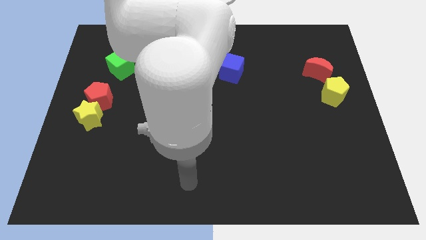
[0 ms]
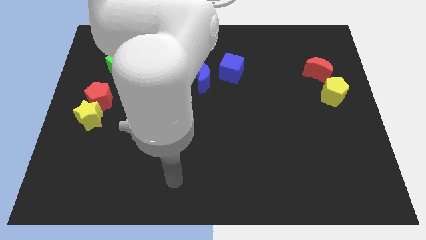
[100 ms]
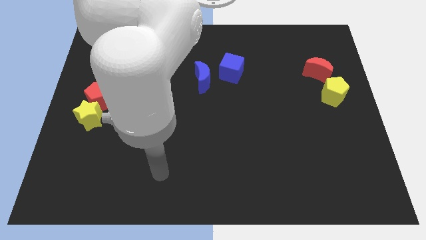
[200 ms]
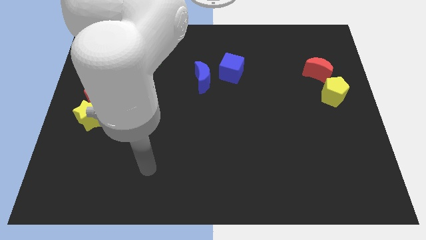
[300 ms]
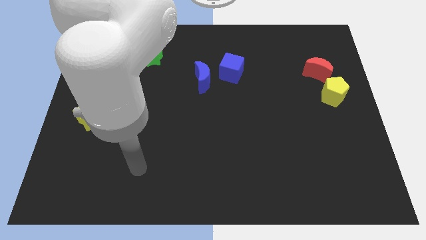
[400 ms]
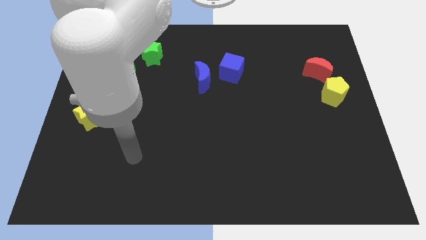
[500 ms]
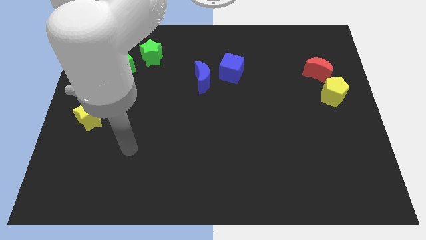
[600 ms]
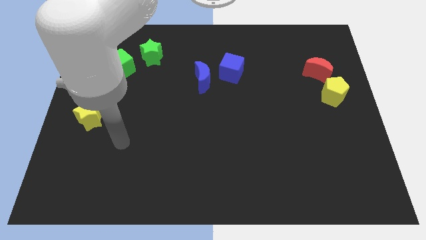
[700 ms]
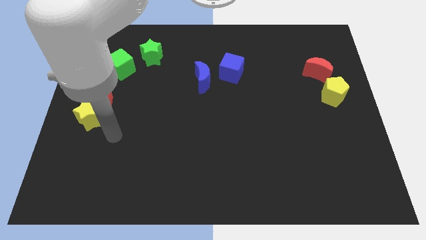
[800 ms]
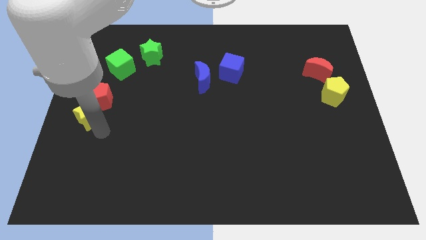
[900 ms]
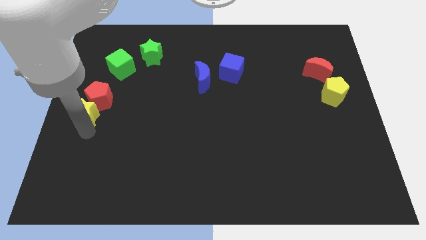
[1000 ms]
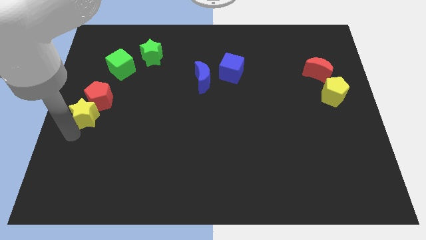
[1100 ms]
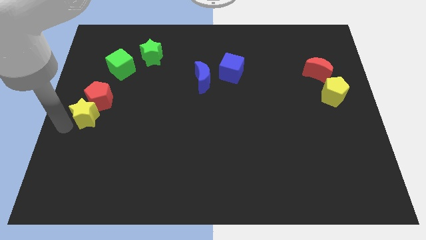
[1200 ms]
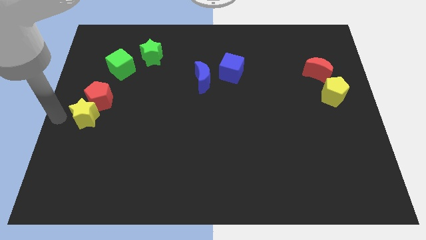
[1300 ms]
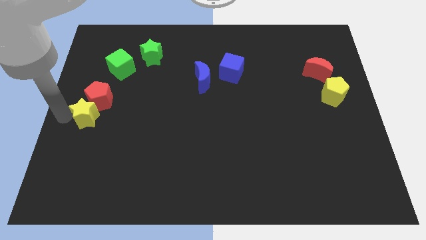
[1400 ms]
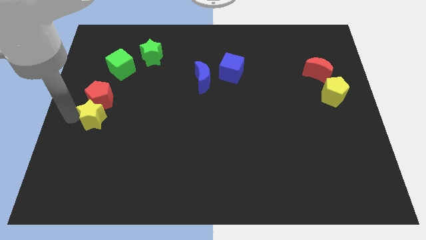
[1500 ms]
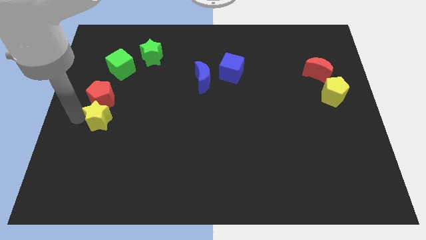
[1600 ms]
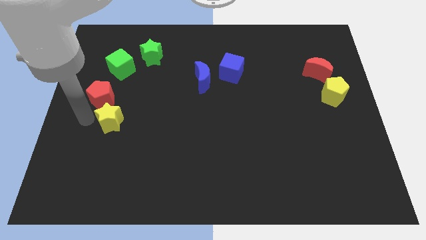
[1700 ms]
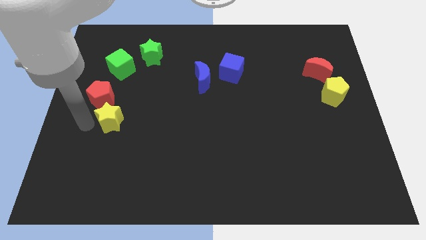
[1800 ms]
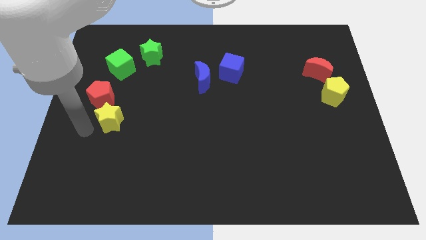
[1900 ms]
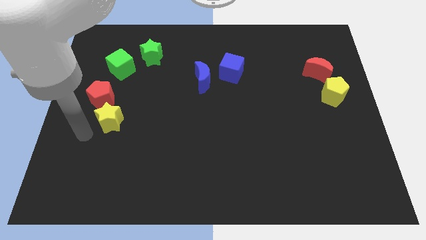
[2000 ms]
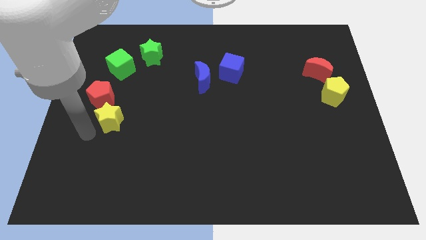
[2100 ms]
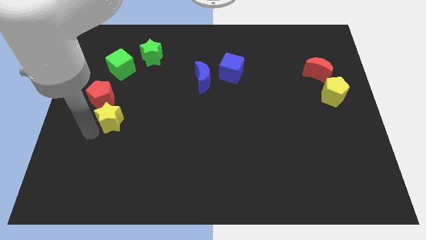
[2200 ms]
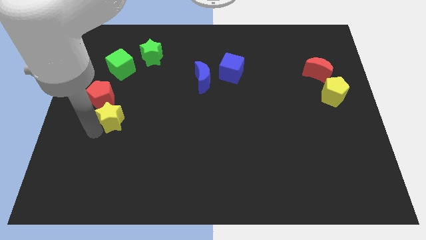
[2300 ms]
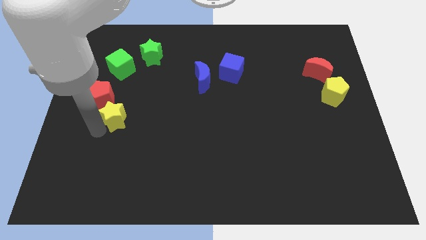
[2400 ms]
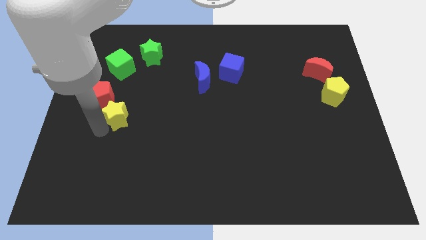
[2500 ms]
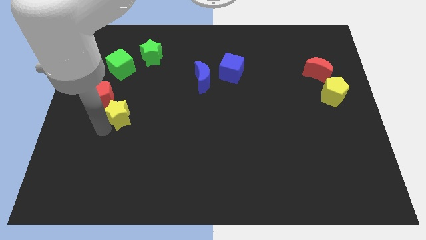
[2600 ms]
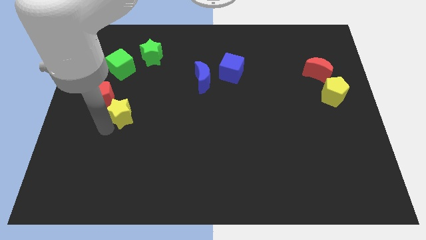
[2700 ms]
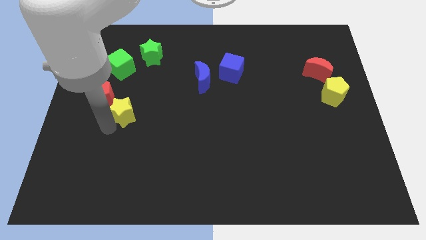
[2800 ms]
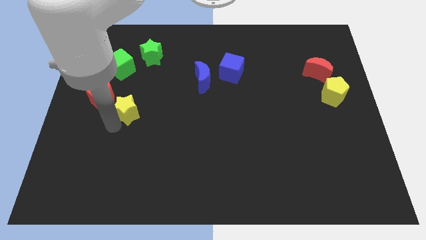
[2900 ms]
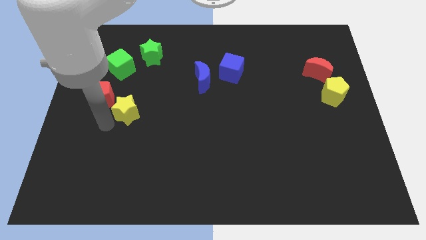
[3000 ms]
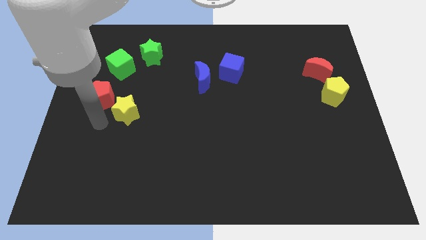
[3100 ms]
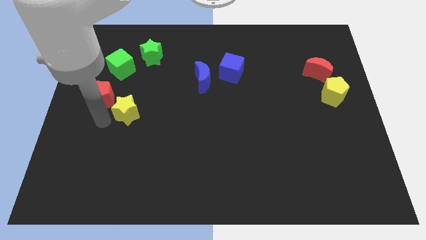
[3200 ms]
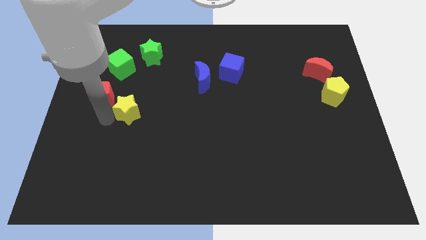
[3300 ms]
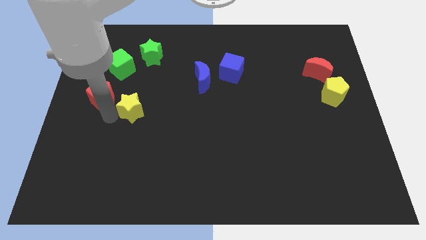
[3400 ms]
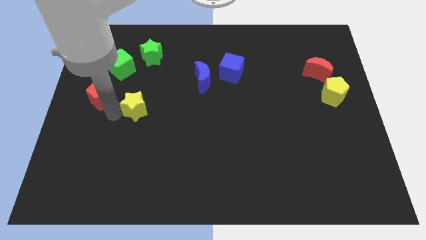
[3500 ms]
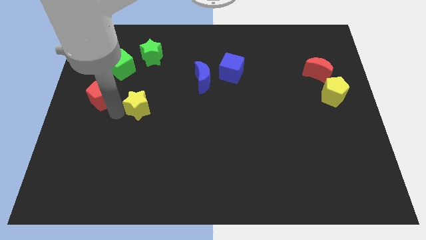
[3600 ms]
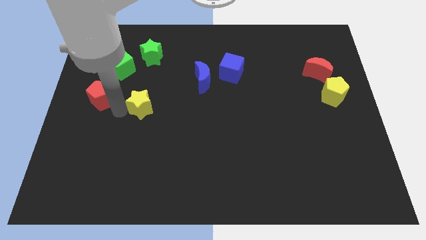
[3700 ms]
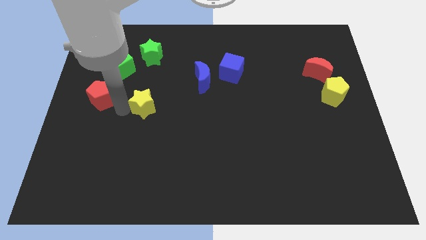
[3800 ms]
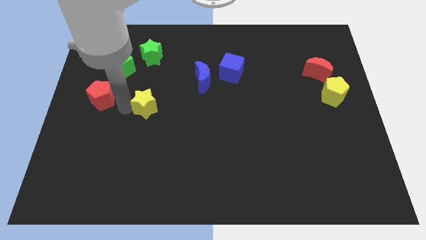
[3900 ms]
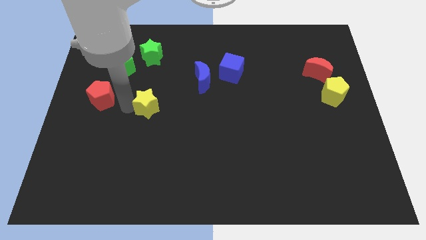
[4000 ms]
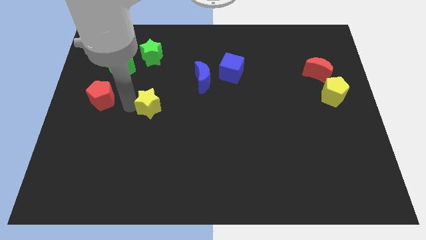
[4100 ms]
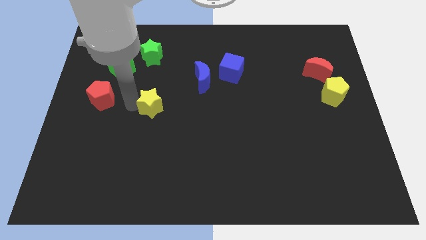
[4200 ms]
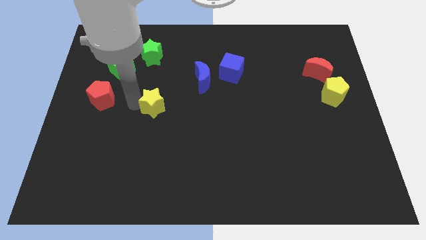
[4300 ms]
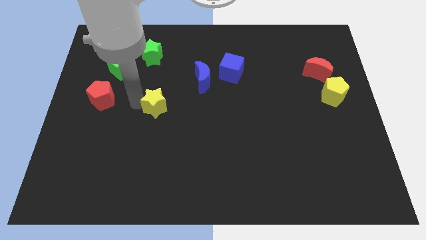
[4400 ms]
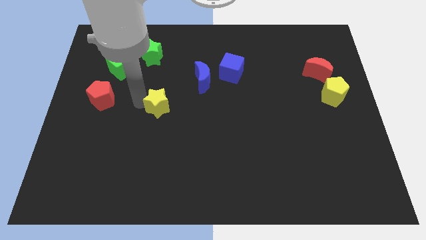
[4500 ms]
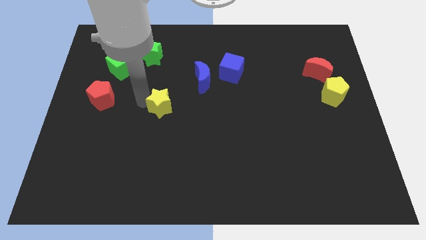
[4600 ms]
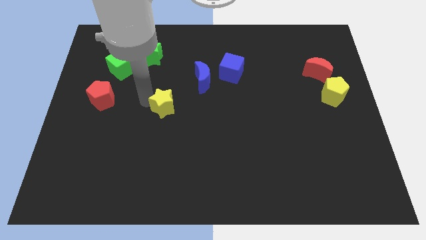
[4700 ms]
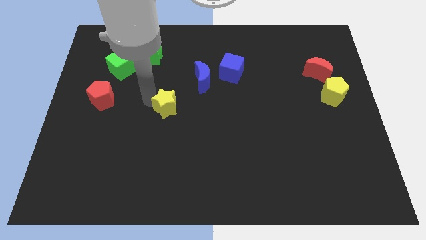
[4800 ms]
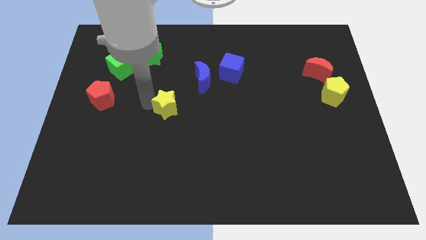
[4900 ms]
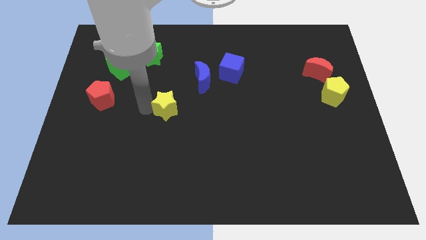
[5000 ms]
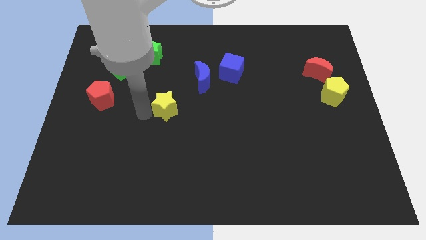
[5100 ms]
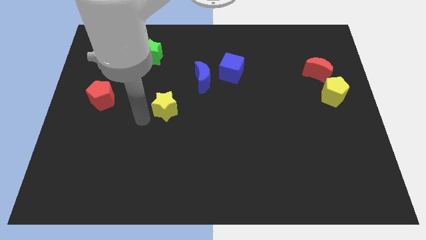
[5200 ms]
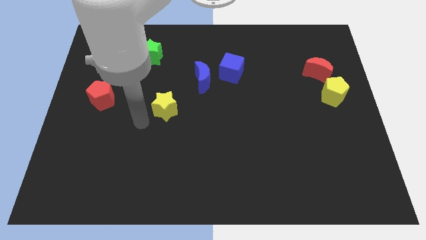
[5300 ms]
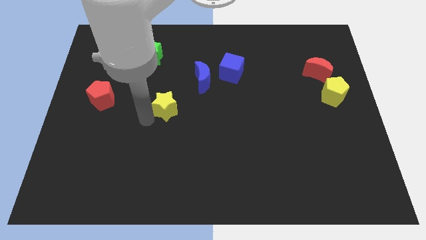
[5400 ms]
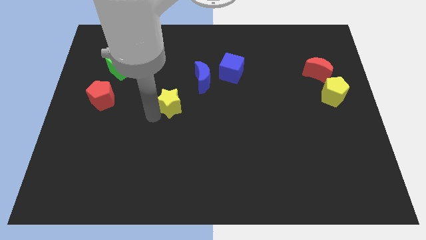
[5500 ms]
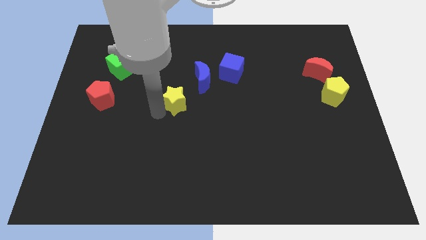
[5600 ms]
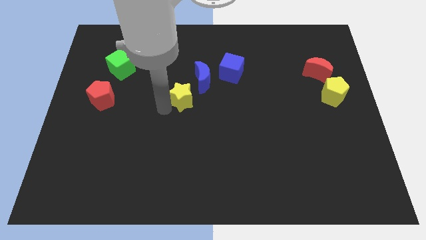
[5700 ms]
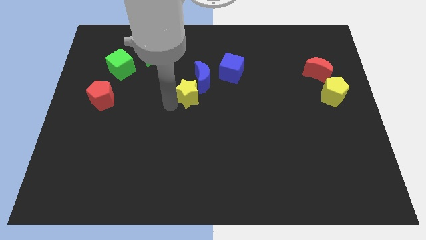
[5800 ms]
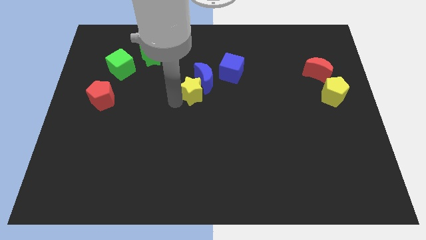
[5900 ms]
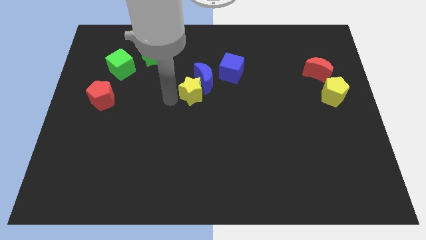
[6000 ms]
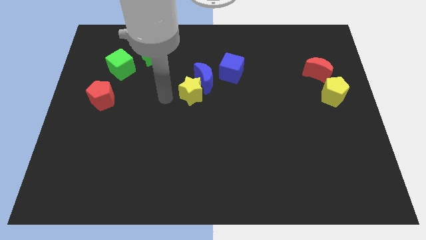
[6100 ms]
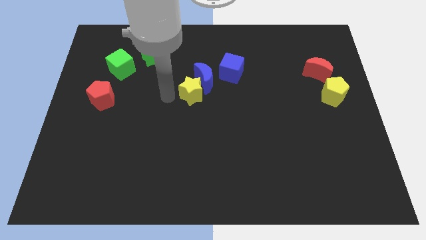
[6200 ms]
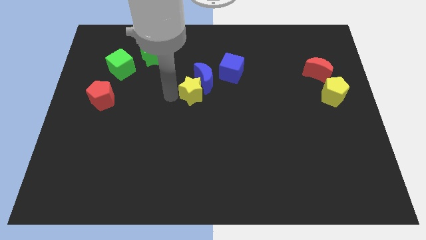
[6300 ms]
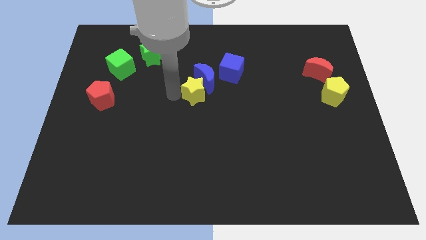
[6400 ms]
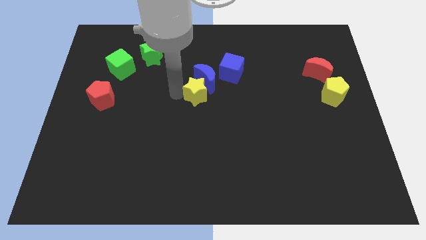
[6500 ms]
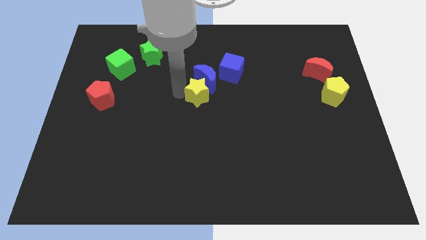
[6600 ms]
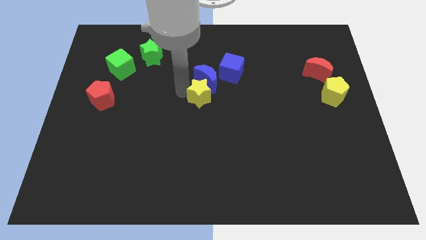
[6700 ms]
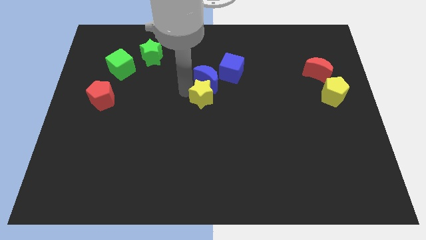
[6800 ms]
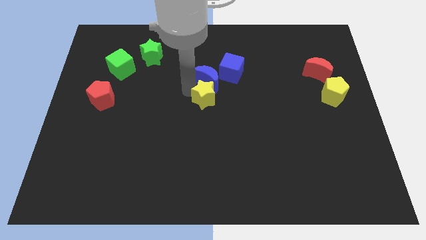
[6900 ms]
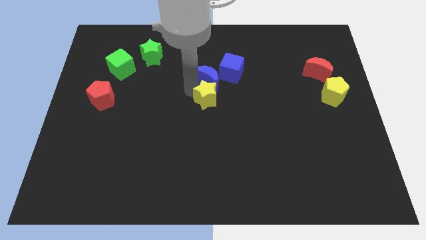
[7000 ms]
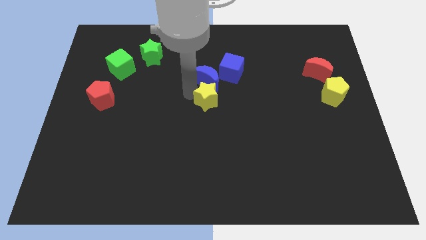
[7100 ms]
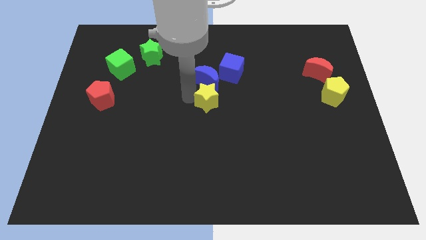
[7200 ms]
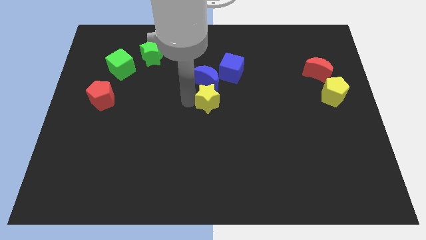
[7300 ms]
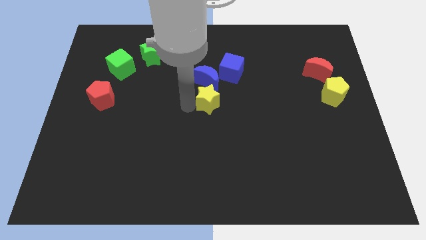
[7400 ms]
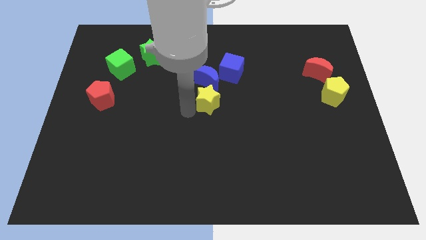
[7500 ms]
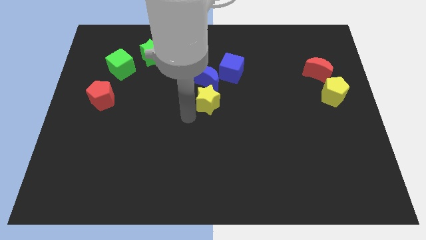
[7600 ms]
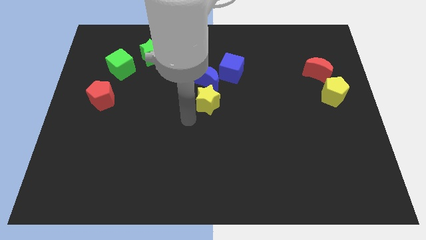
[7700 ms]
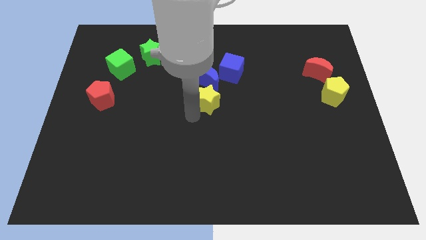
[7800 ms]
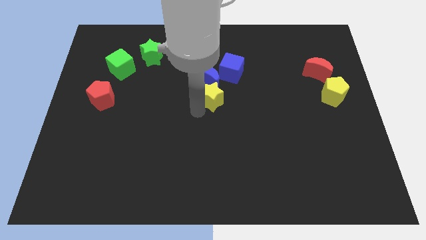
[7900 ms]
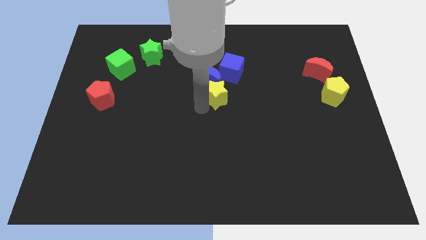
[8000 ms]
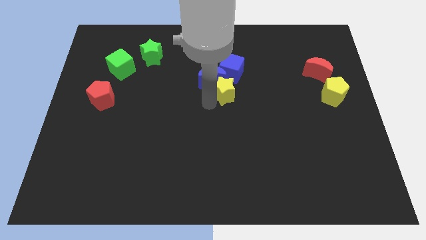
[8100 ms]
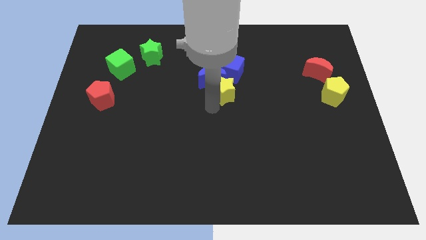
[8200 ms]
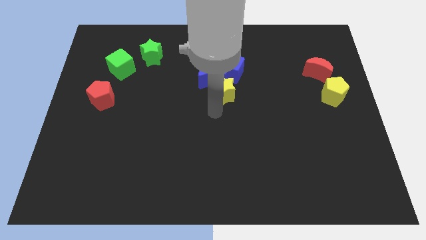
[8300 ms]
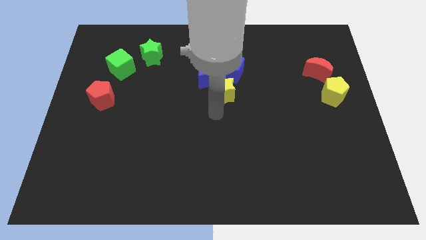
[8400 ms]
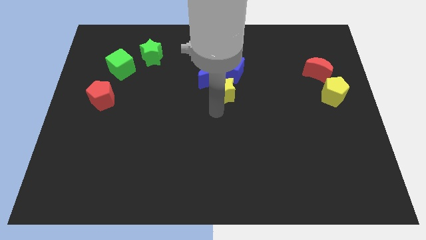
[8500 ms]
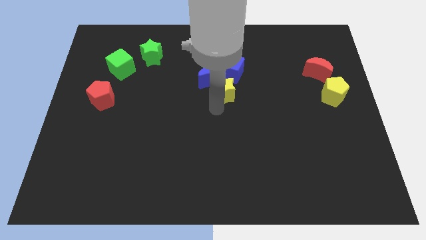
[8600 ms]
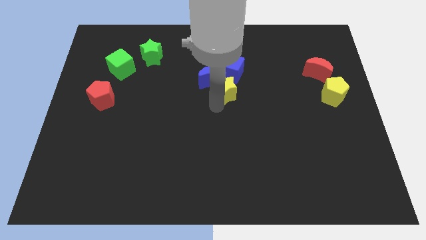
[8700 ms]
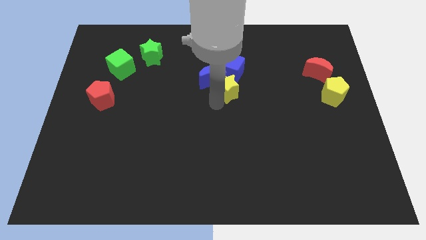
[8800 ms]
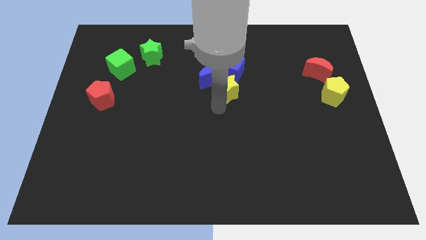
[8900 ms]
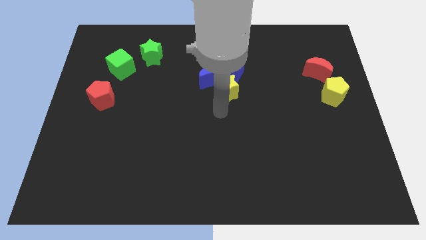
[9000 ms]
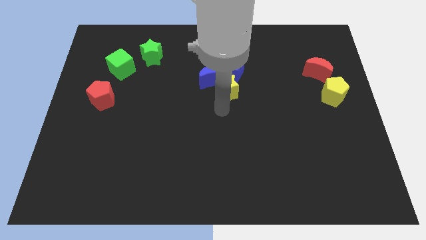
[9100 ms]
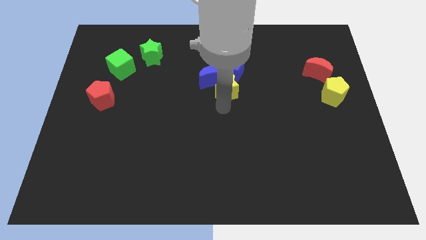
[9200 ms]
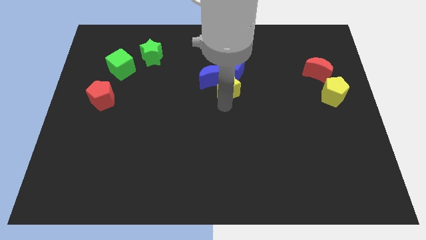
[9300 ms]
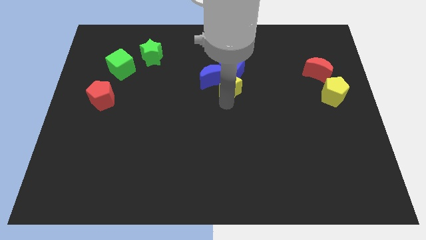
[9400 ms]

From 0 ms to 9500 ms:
move the yellow star close to the blue cube
